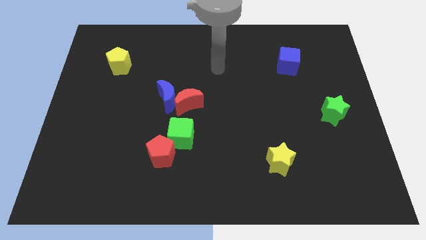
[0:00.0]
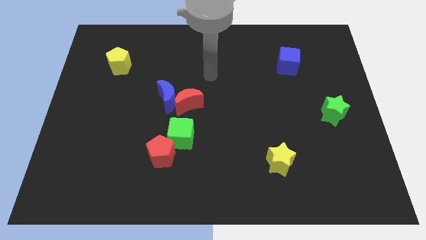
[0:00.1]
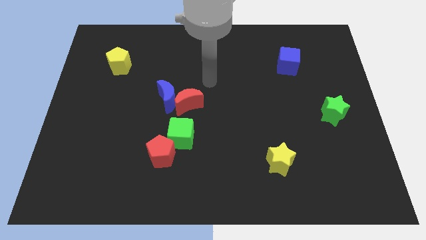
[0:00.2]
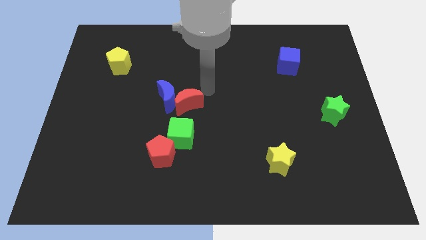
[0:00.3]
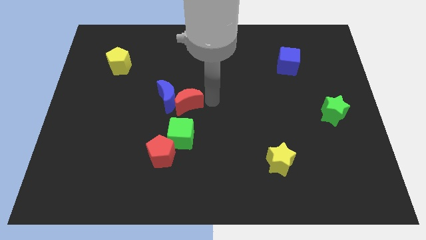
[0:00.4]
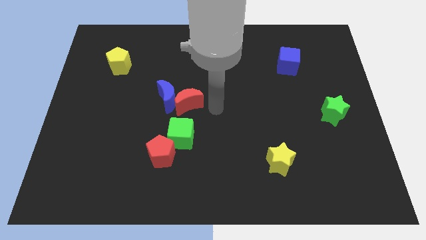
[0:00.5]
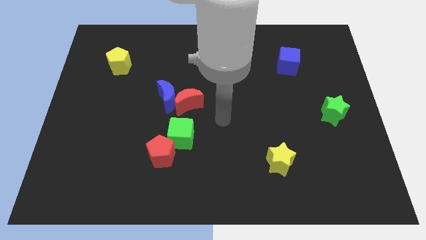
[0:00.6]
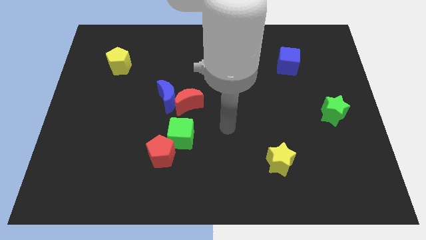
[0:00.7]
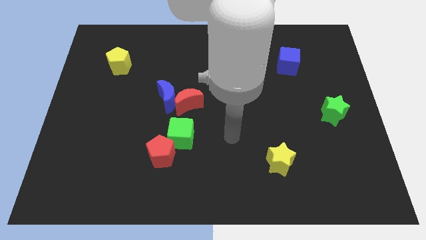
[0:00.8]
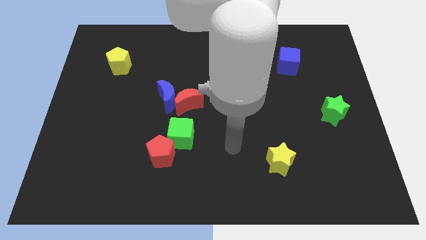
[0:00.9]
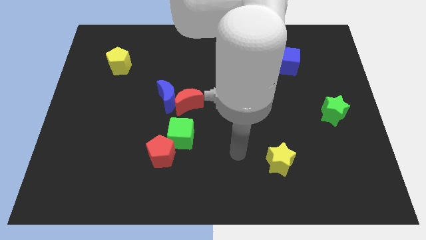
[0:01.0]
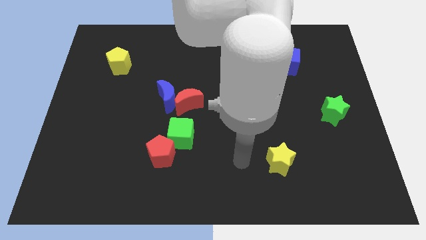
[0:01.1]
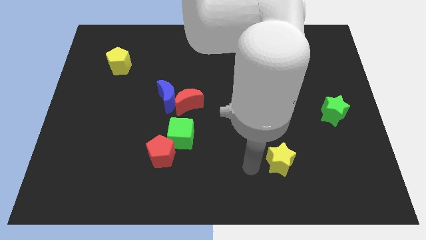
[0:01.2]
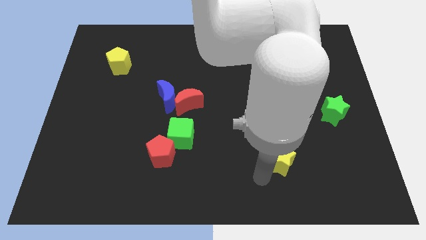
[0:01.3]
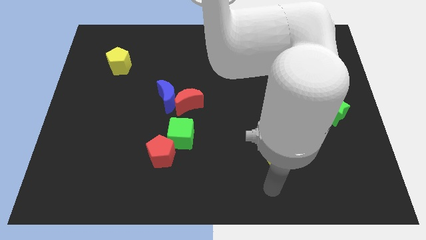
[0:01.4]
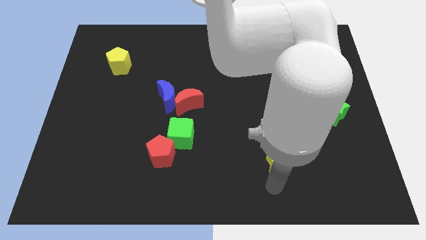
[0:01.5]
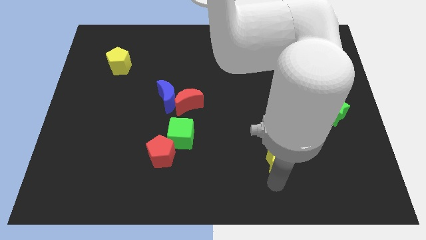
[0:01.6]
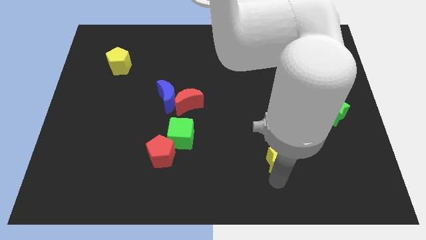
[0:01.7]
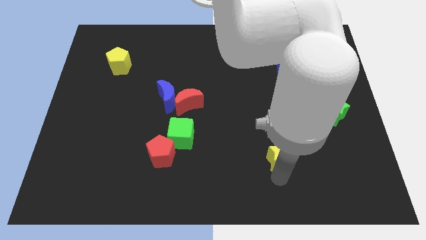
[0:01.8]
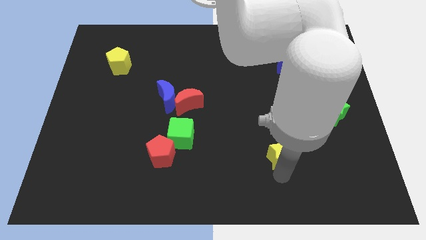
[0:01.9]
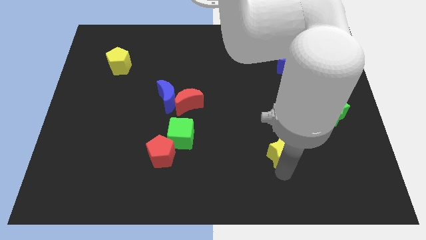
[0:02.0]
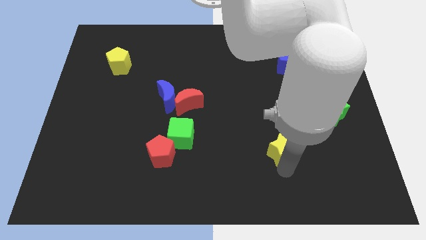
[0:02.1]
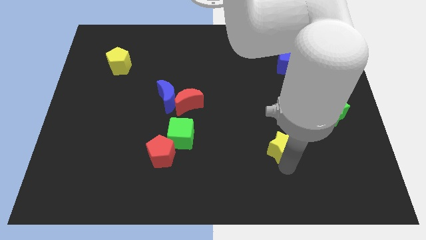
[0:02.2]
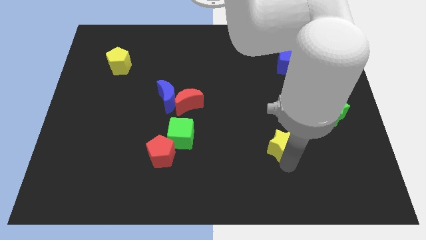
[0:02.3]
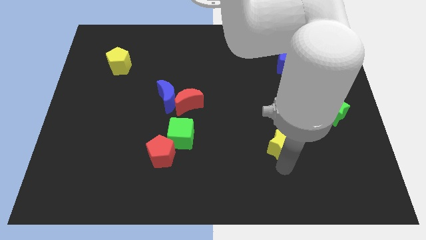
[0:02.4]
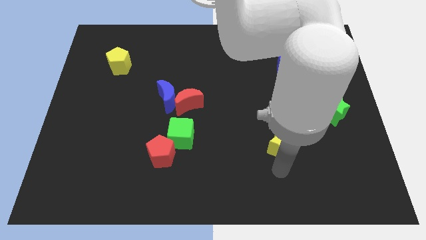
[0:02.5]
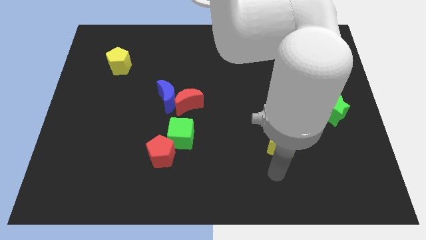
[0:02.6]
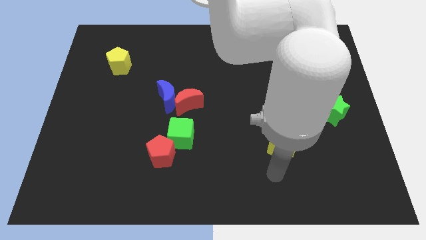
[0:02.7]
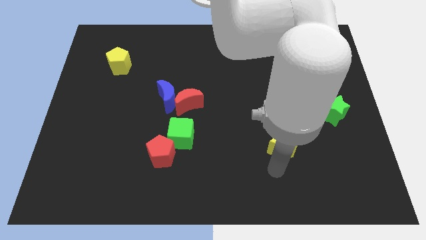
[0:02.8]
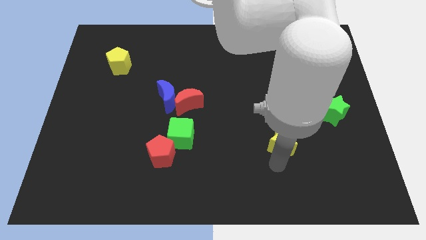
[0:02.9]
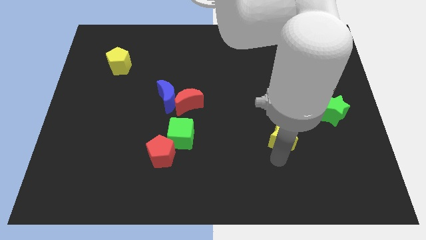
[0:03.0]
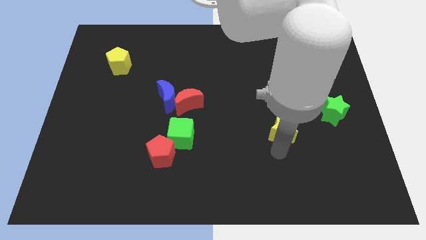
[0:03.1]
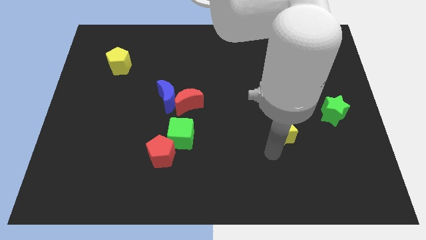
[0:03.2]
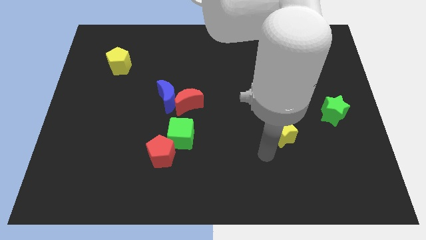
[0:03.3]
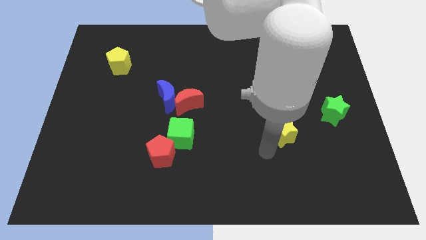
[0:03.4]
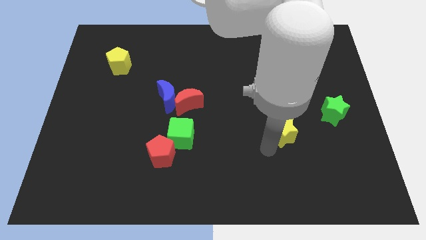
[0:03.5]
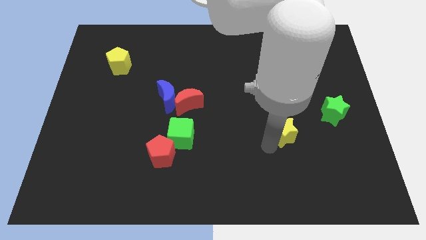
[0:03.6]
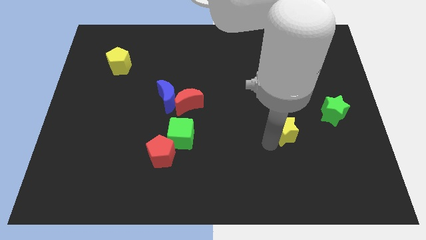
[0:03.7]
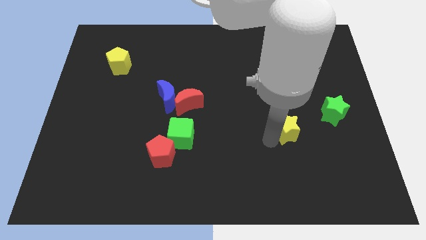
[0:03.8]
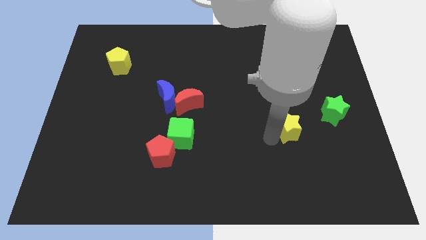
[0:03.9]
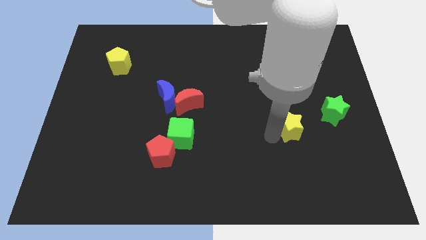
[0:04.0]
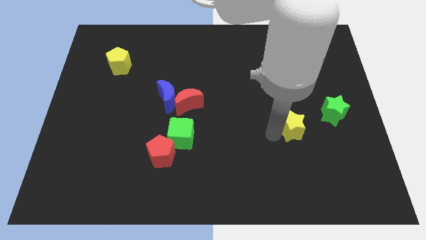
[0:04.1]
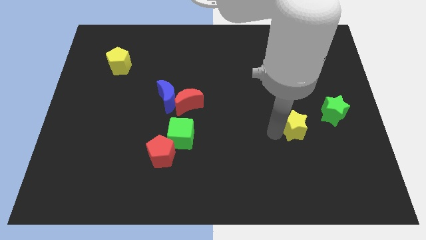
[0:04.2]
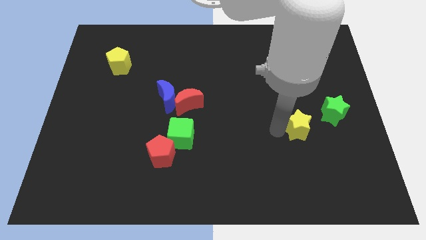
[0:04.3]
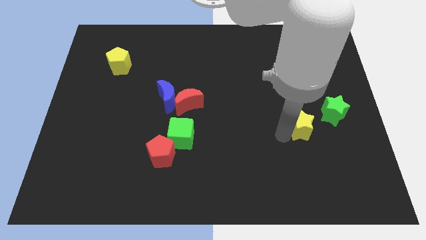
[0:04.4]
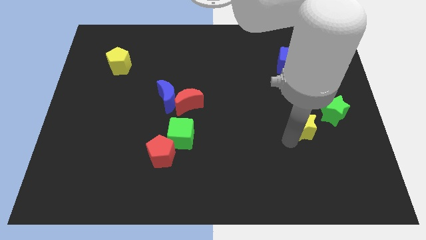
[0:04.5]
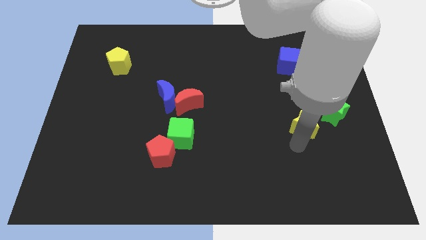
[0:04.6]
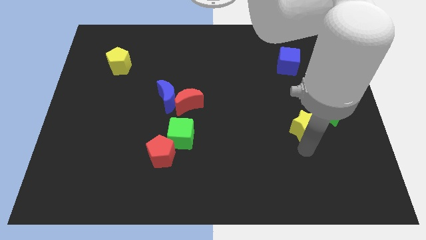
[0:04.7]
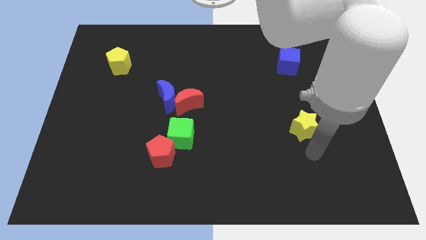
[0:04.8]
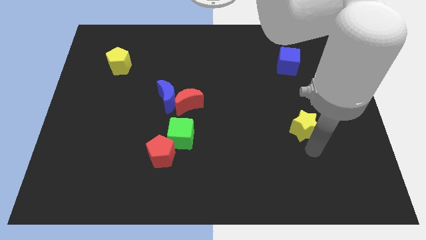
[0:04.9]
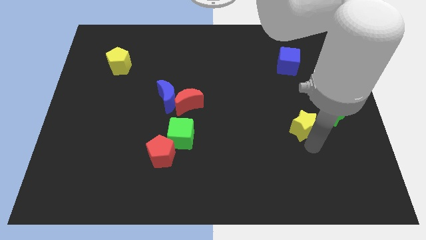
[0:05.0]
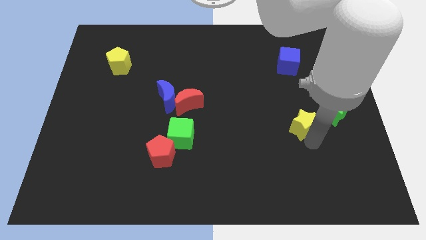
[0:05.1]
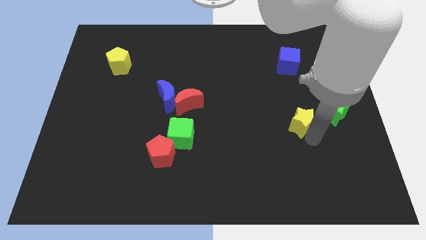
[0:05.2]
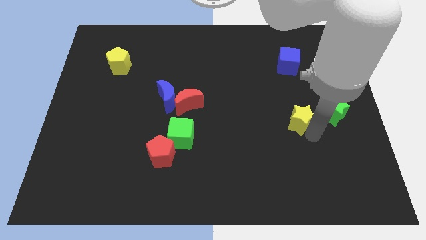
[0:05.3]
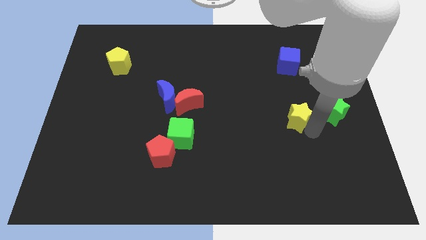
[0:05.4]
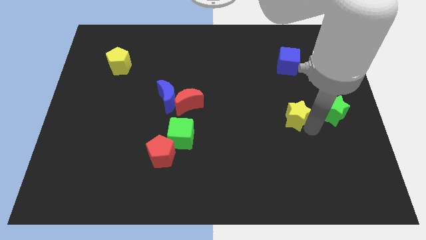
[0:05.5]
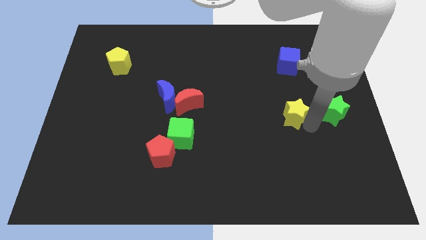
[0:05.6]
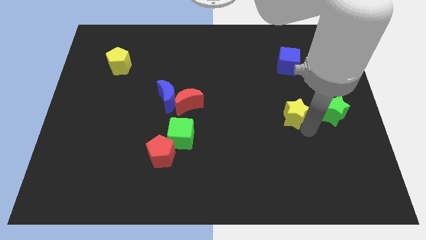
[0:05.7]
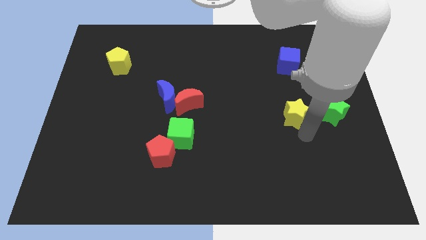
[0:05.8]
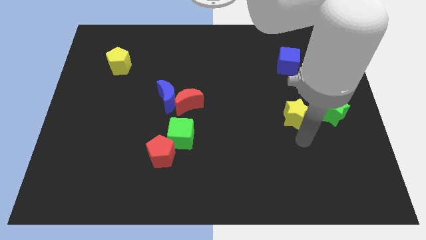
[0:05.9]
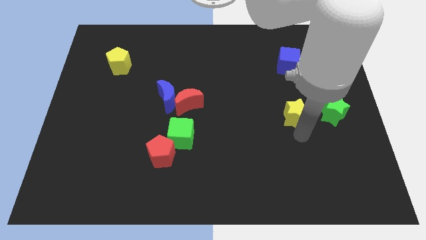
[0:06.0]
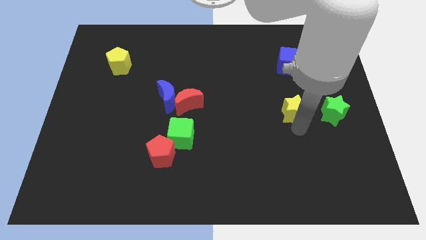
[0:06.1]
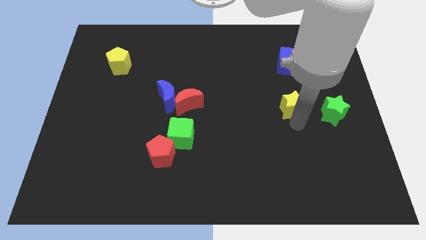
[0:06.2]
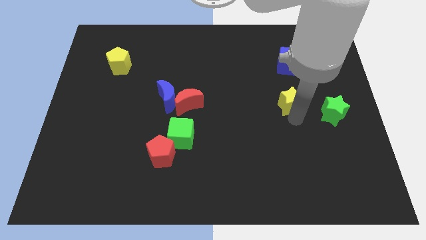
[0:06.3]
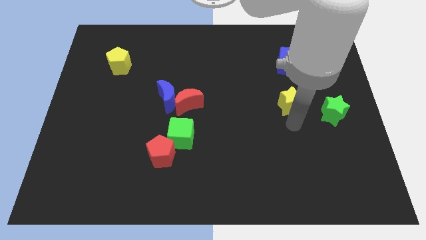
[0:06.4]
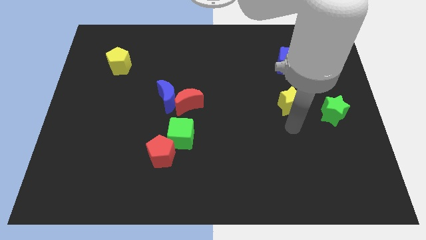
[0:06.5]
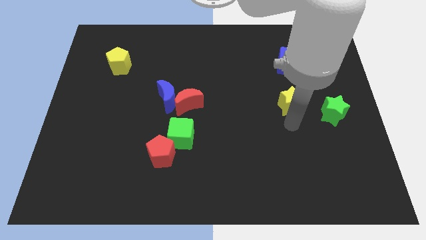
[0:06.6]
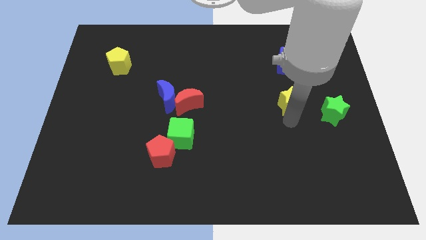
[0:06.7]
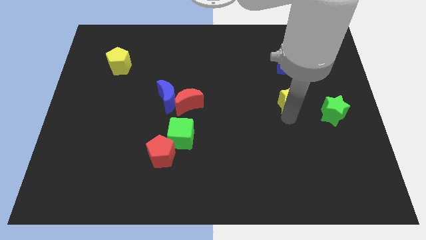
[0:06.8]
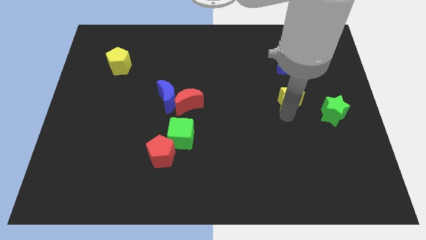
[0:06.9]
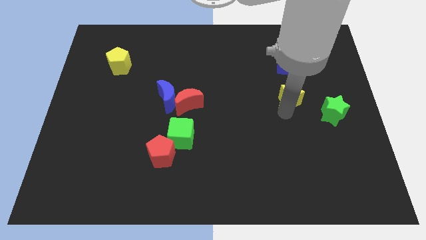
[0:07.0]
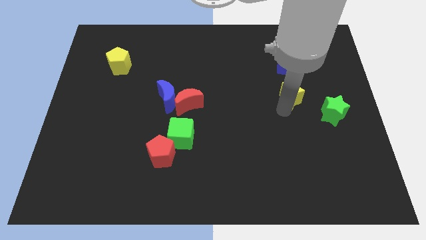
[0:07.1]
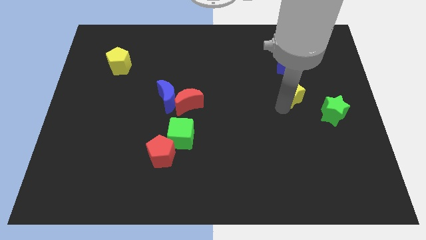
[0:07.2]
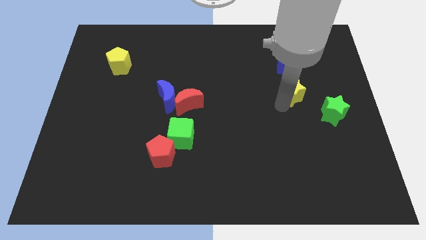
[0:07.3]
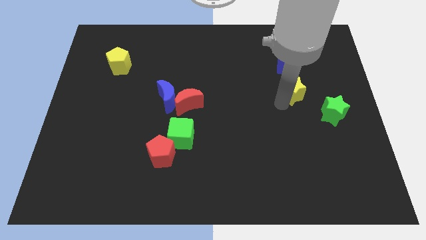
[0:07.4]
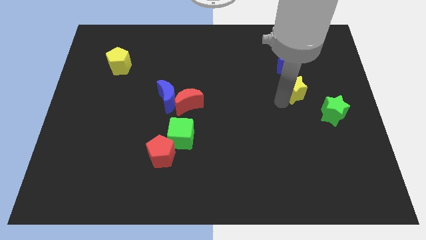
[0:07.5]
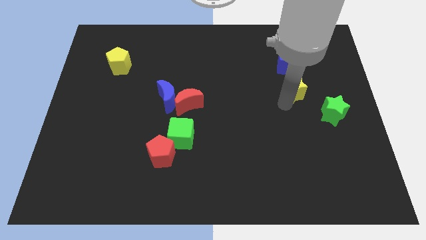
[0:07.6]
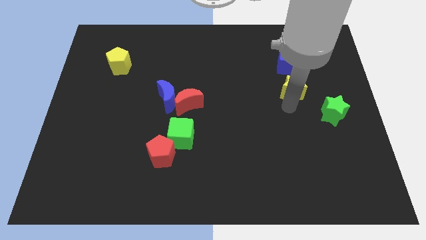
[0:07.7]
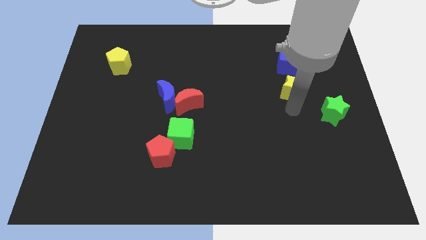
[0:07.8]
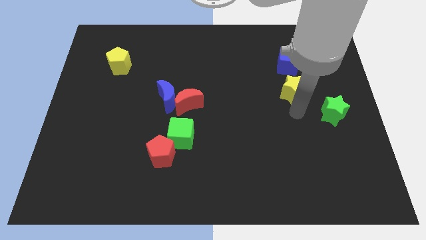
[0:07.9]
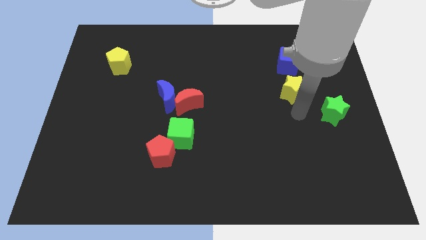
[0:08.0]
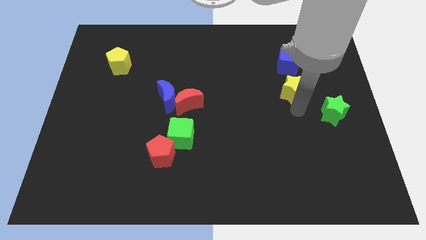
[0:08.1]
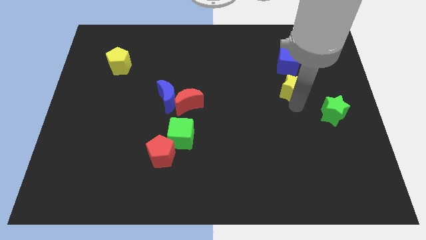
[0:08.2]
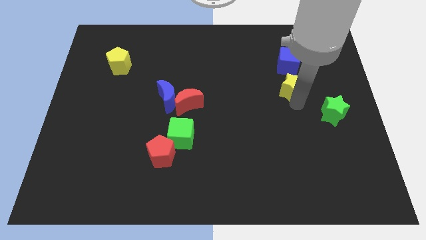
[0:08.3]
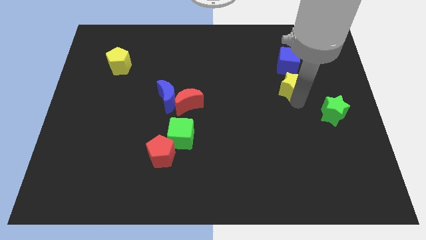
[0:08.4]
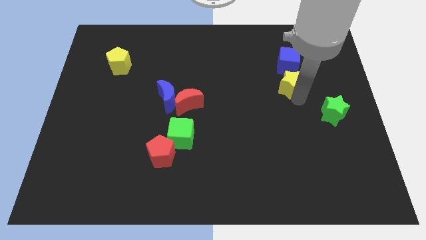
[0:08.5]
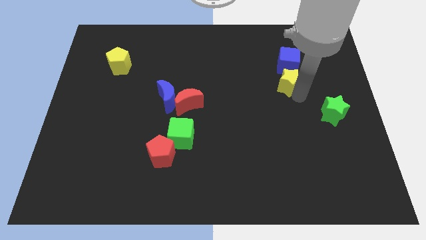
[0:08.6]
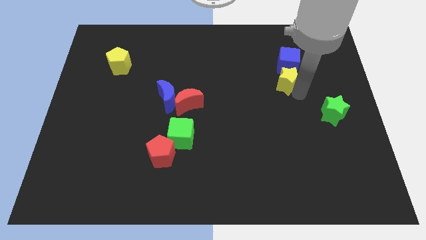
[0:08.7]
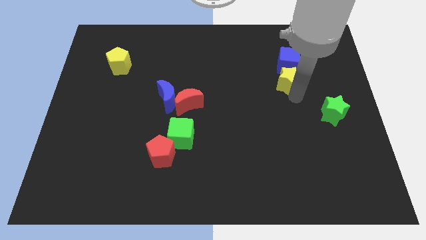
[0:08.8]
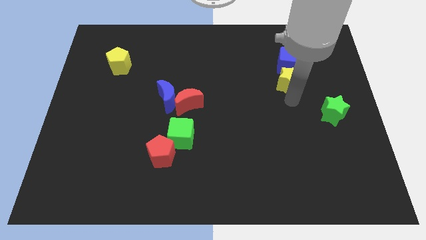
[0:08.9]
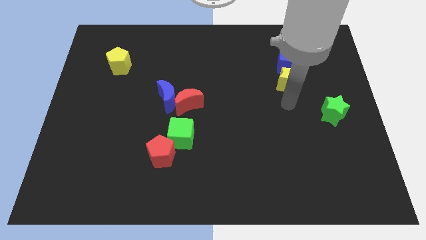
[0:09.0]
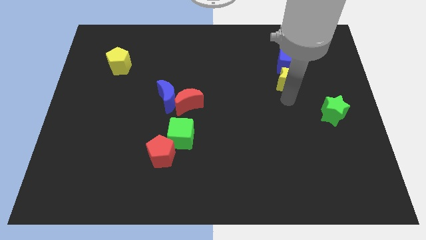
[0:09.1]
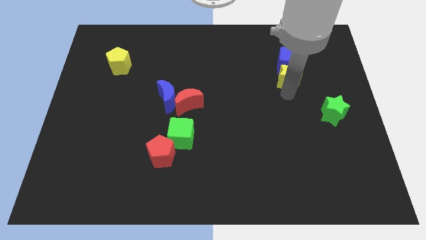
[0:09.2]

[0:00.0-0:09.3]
move the yellow star to the blue cube
